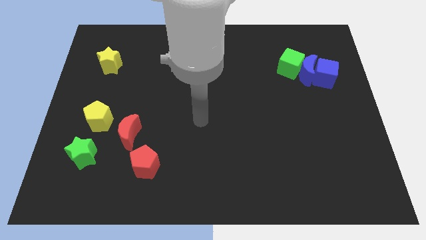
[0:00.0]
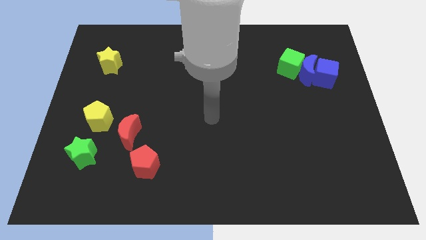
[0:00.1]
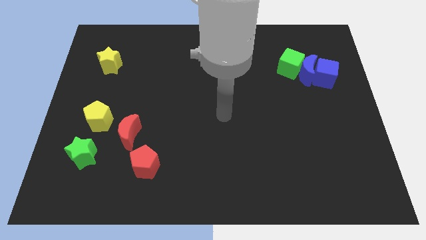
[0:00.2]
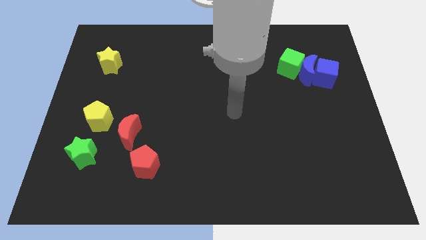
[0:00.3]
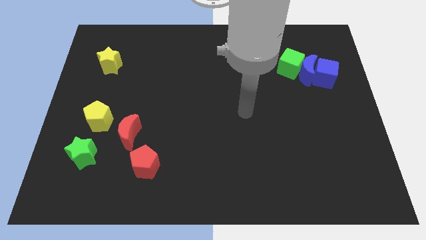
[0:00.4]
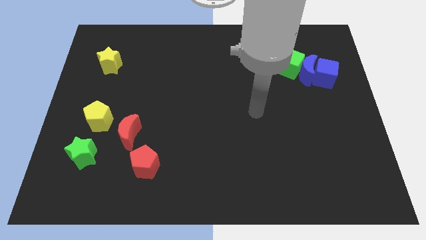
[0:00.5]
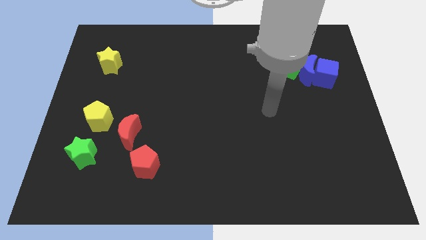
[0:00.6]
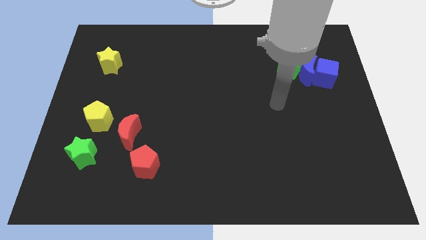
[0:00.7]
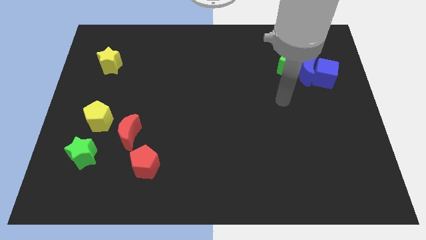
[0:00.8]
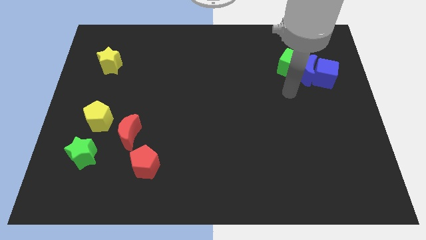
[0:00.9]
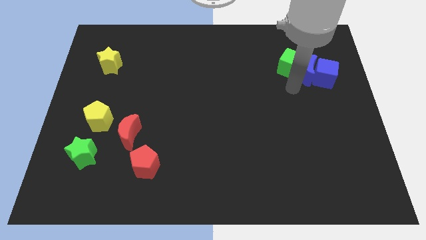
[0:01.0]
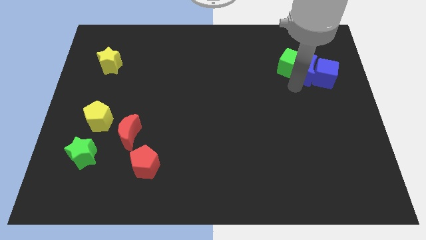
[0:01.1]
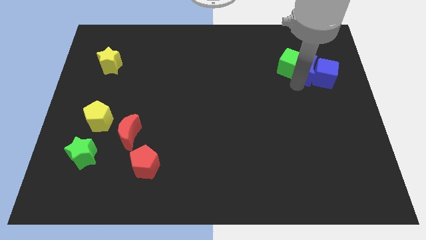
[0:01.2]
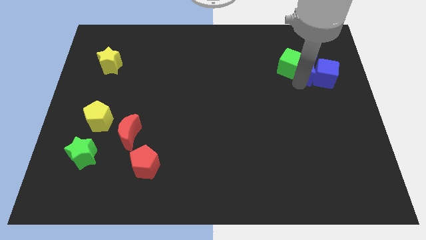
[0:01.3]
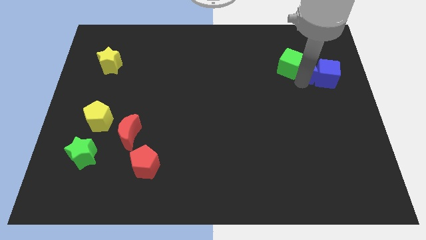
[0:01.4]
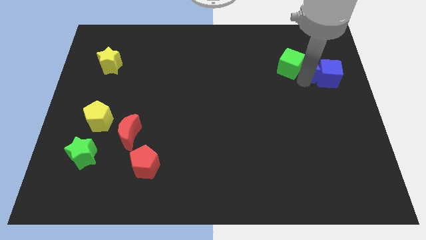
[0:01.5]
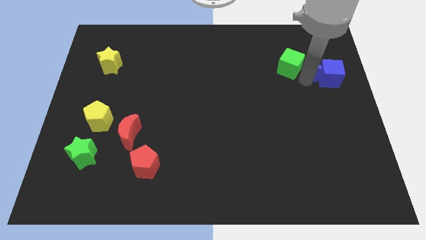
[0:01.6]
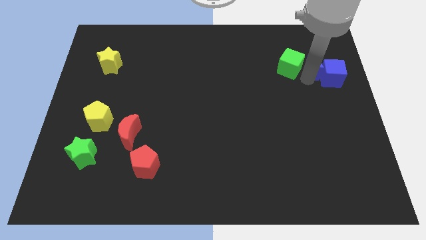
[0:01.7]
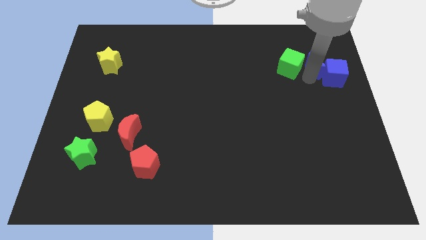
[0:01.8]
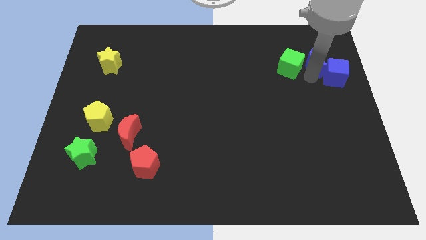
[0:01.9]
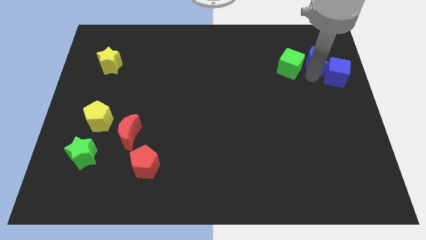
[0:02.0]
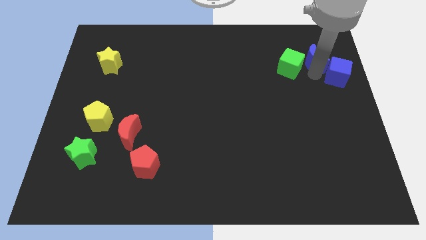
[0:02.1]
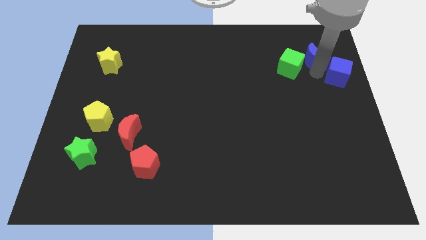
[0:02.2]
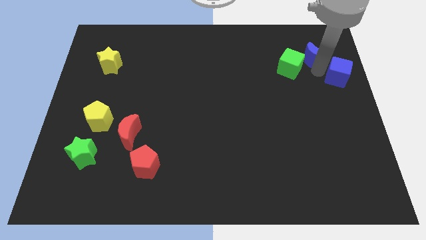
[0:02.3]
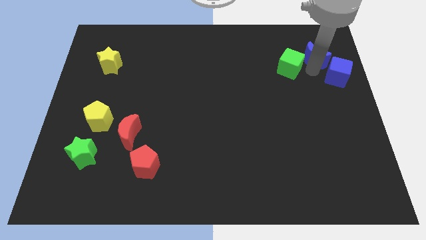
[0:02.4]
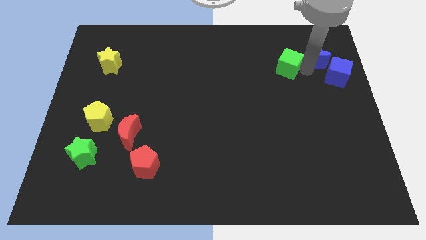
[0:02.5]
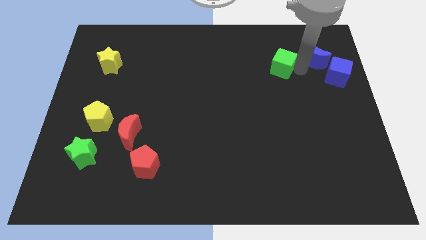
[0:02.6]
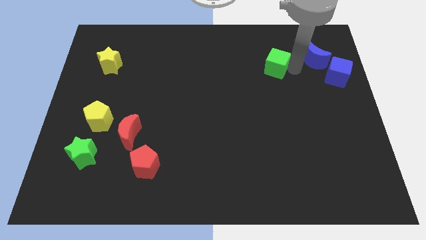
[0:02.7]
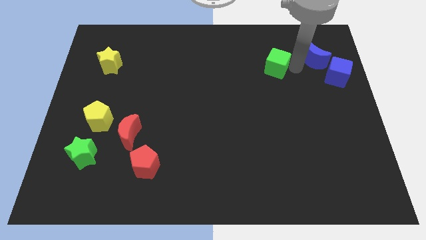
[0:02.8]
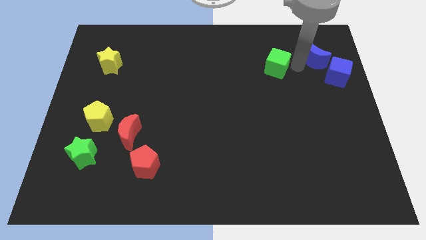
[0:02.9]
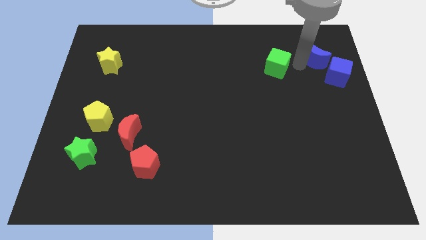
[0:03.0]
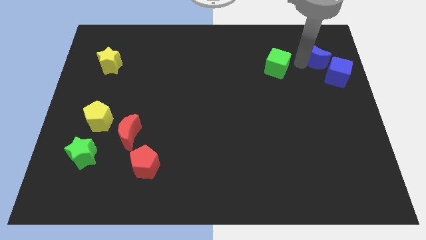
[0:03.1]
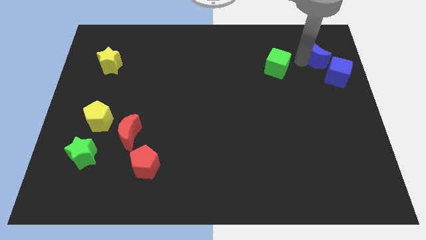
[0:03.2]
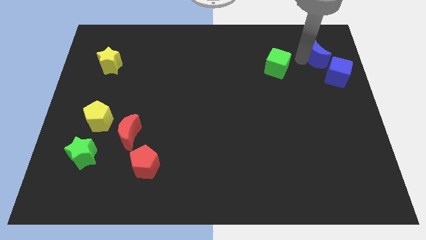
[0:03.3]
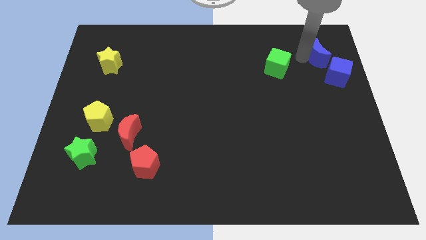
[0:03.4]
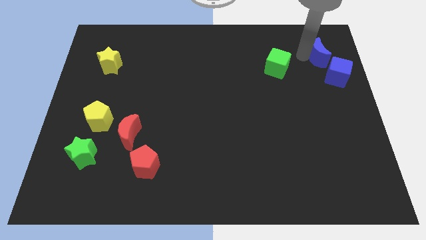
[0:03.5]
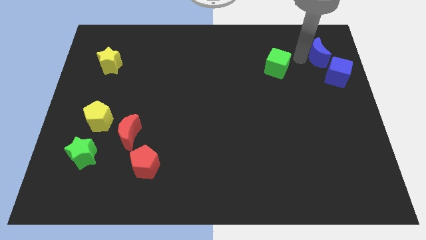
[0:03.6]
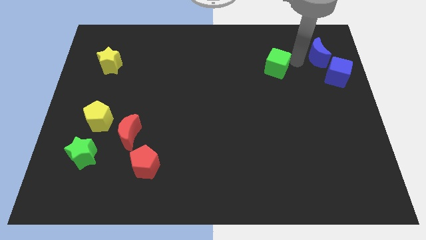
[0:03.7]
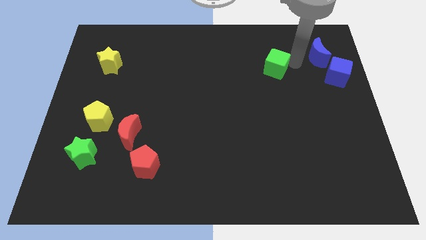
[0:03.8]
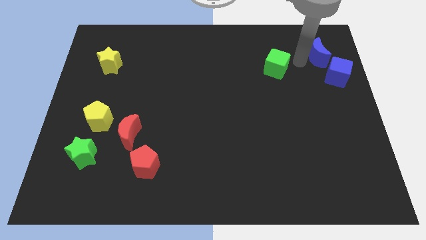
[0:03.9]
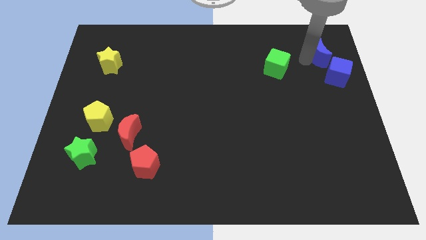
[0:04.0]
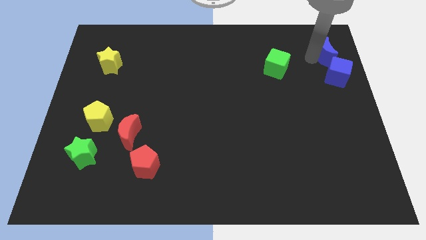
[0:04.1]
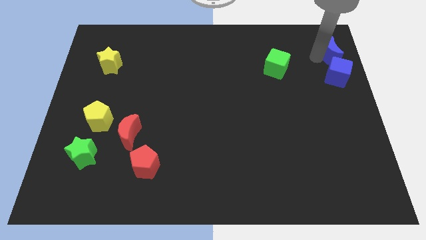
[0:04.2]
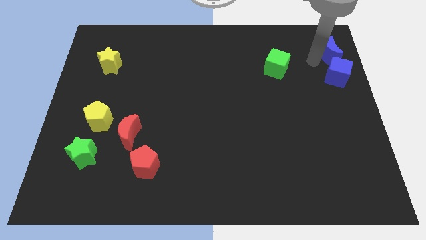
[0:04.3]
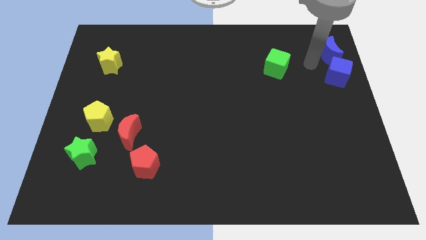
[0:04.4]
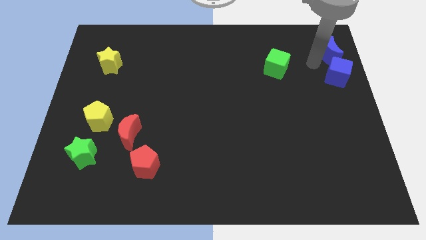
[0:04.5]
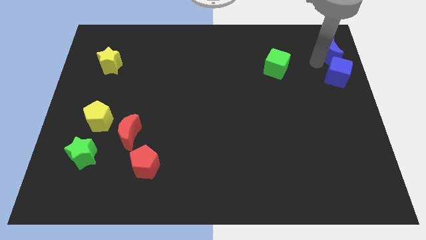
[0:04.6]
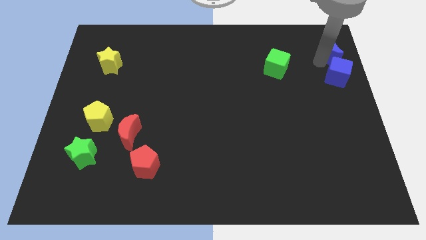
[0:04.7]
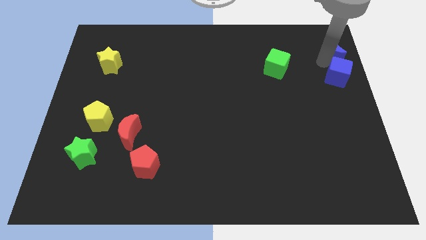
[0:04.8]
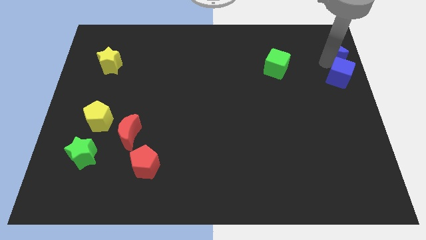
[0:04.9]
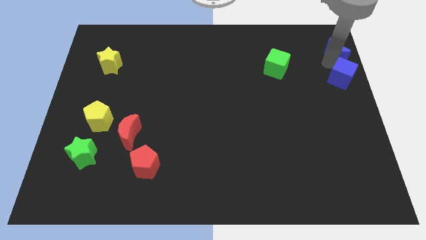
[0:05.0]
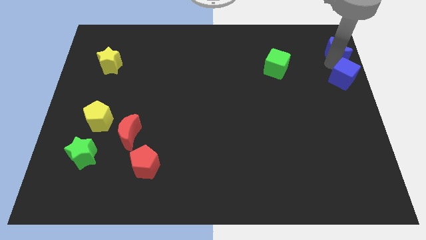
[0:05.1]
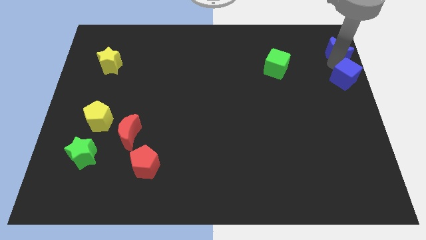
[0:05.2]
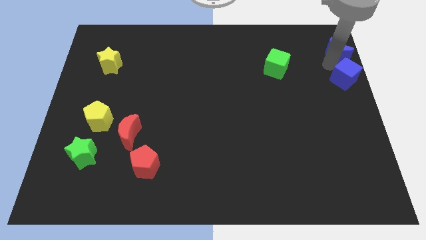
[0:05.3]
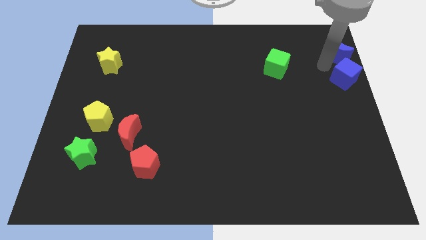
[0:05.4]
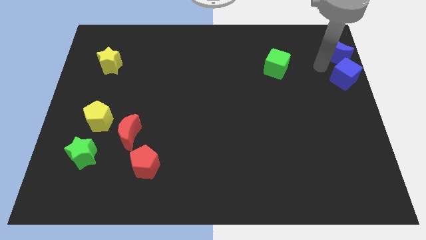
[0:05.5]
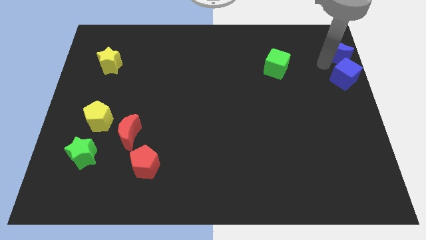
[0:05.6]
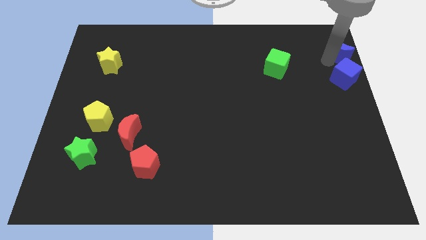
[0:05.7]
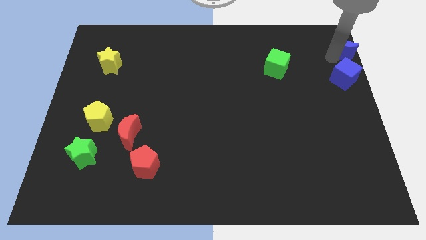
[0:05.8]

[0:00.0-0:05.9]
put the blue moon to the top right of the board

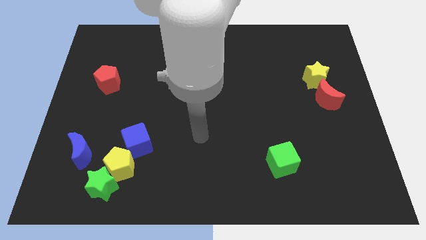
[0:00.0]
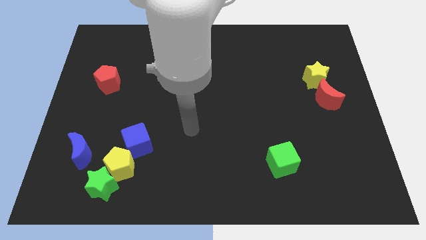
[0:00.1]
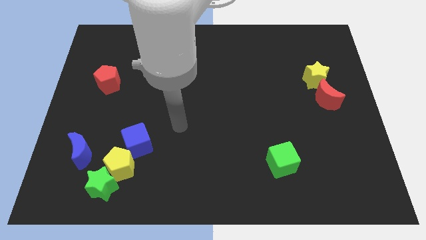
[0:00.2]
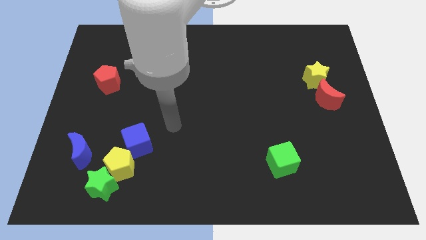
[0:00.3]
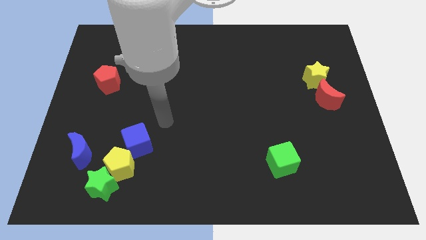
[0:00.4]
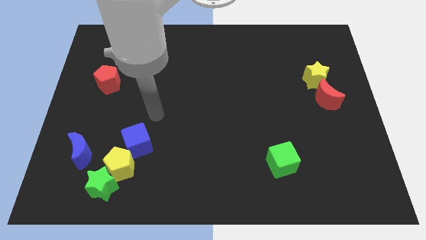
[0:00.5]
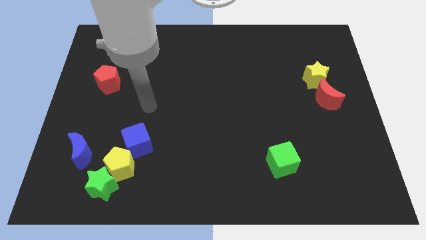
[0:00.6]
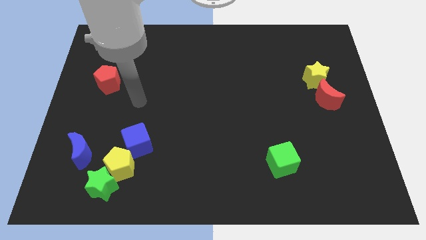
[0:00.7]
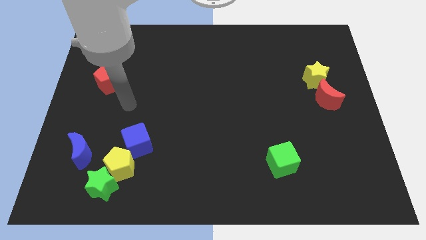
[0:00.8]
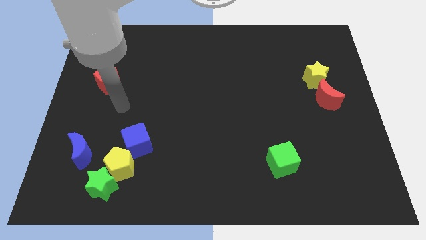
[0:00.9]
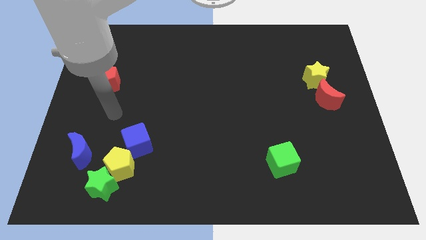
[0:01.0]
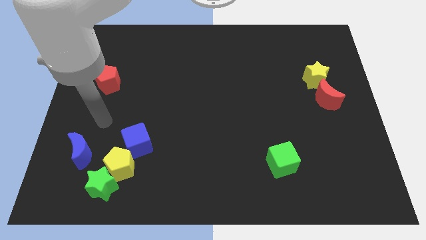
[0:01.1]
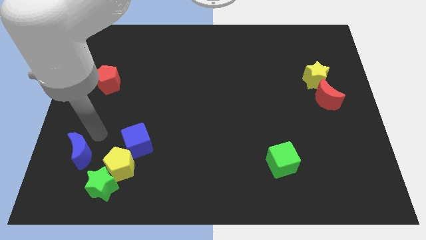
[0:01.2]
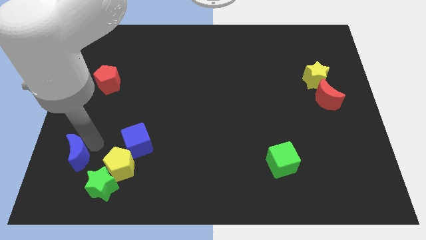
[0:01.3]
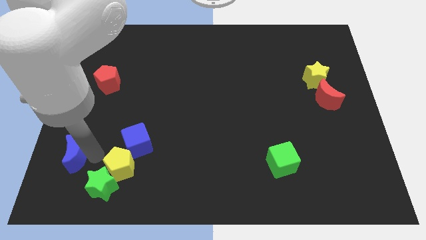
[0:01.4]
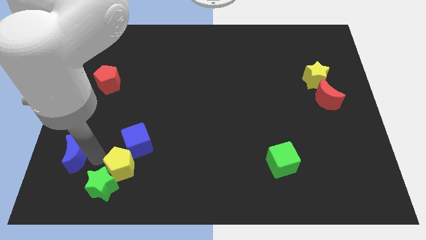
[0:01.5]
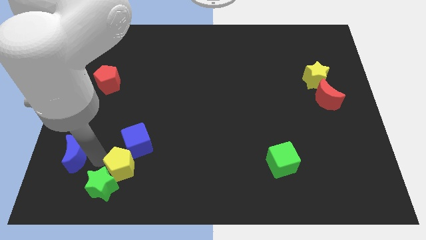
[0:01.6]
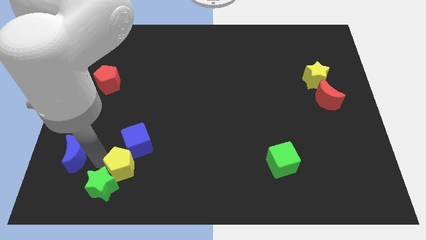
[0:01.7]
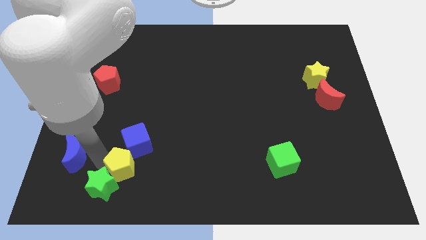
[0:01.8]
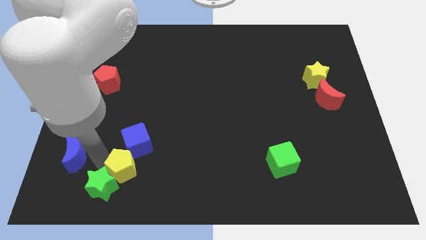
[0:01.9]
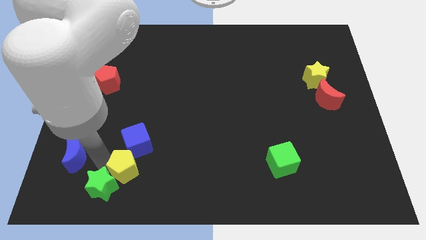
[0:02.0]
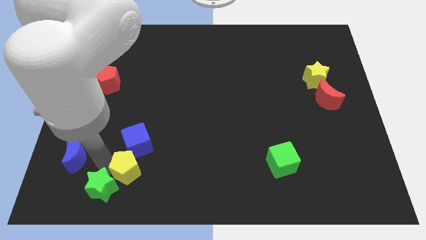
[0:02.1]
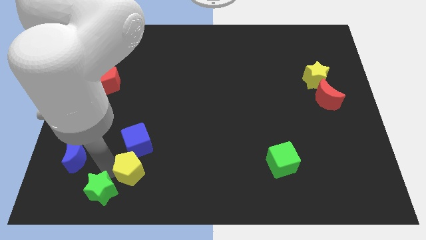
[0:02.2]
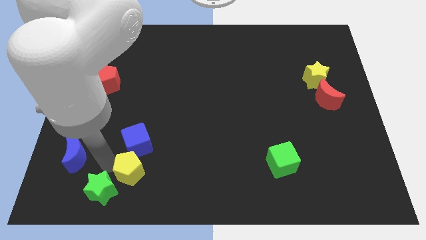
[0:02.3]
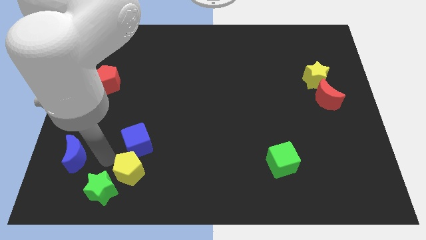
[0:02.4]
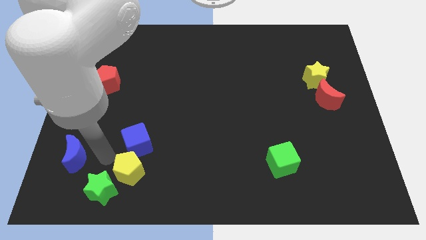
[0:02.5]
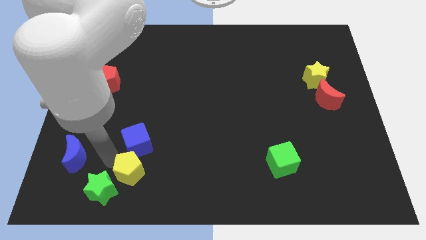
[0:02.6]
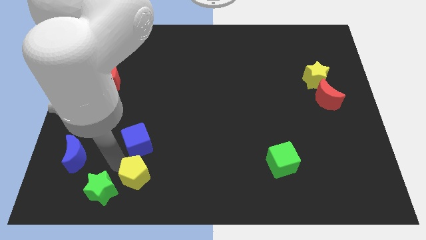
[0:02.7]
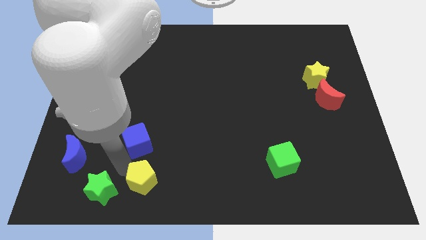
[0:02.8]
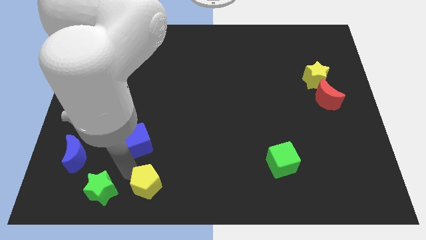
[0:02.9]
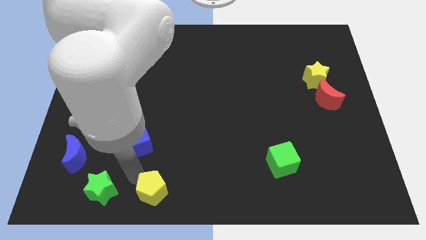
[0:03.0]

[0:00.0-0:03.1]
move the yellow pentagon to the bottom side
